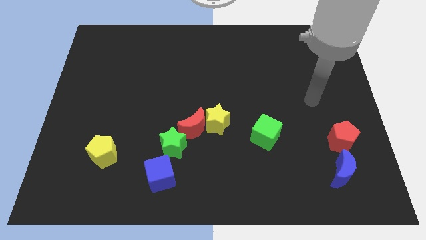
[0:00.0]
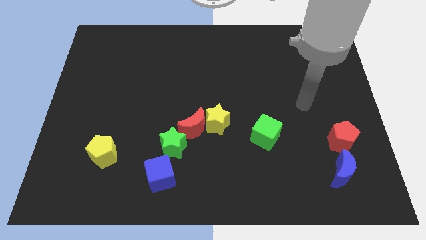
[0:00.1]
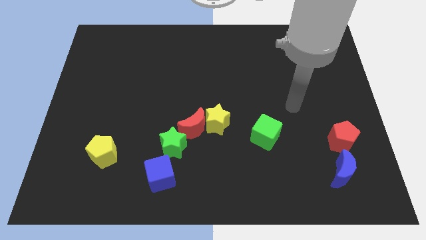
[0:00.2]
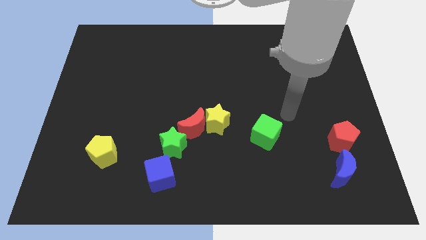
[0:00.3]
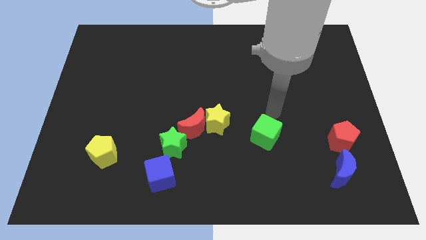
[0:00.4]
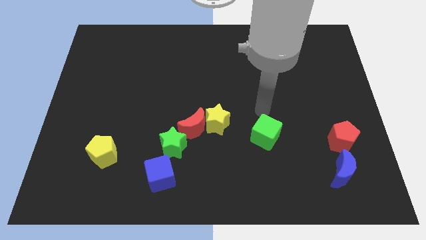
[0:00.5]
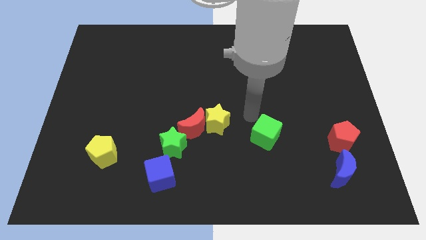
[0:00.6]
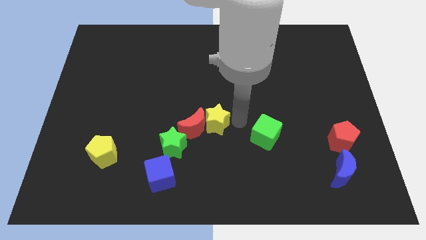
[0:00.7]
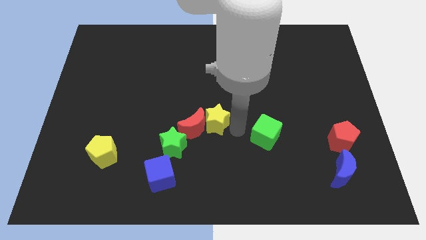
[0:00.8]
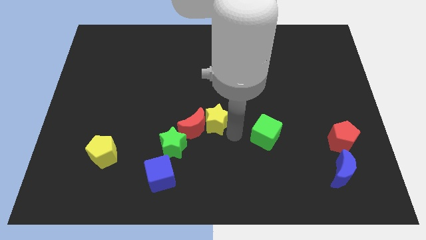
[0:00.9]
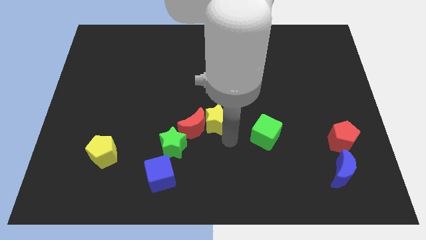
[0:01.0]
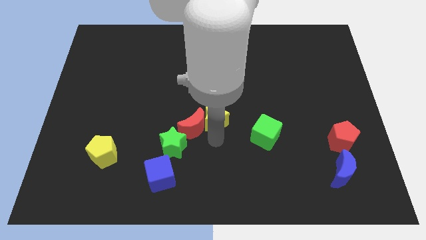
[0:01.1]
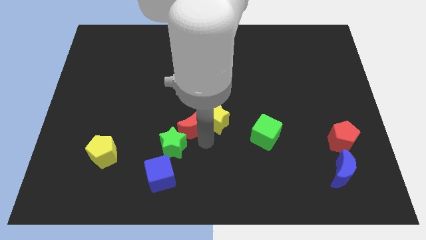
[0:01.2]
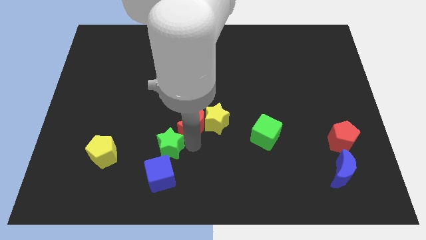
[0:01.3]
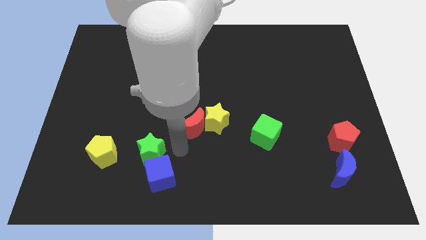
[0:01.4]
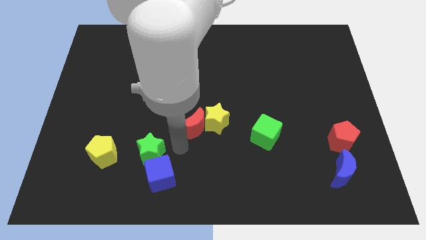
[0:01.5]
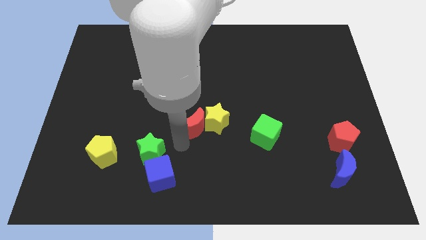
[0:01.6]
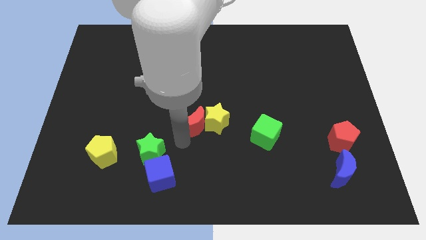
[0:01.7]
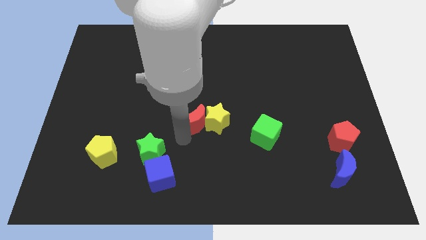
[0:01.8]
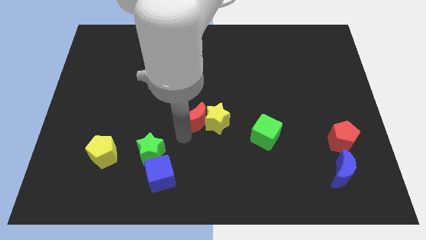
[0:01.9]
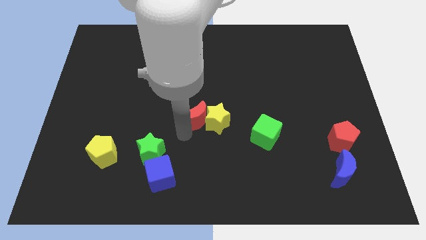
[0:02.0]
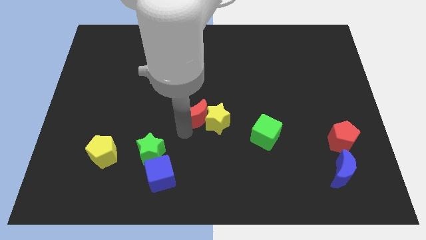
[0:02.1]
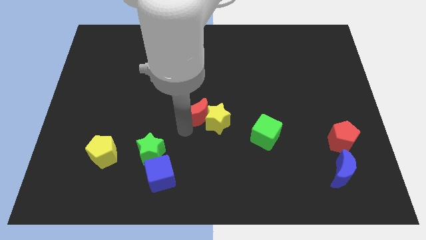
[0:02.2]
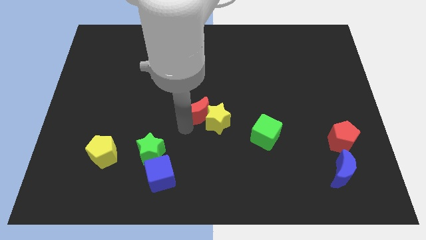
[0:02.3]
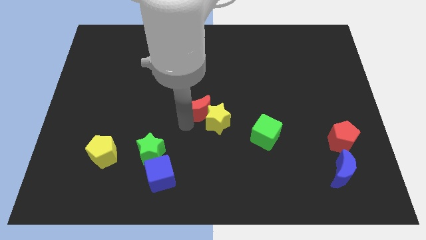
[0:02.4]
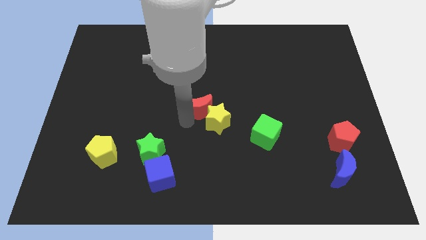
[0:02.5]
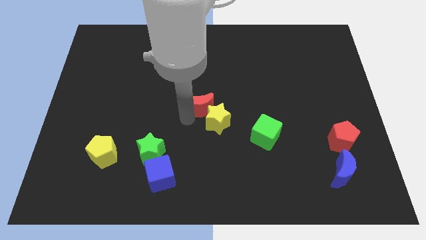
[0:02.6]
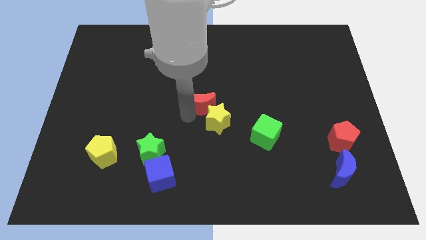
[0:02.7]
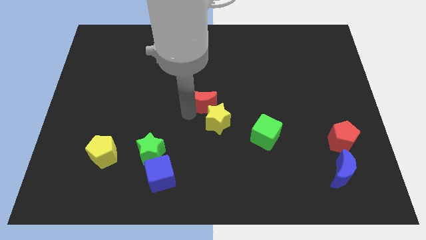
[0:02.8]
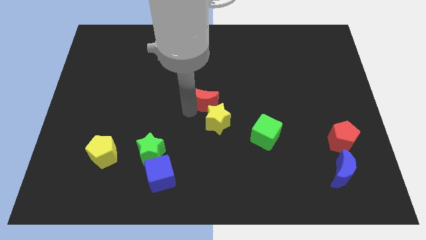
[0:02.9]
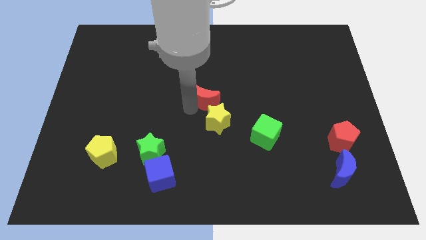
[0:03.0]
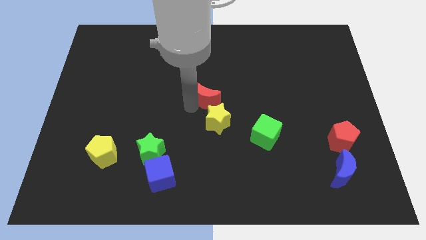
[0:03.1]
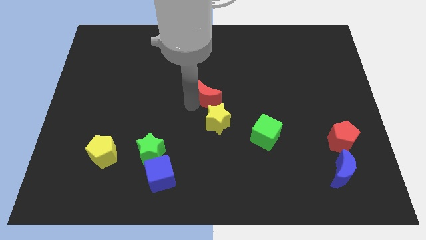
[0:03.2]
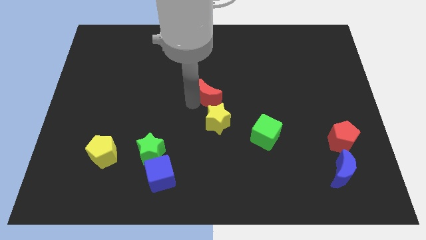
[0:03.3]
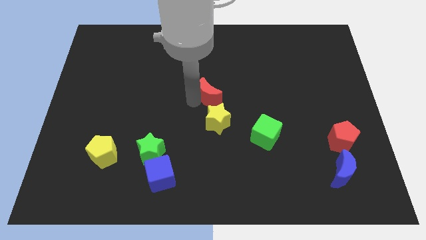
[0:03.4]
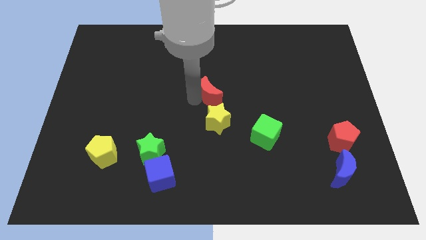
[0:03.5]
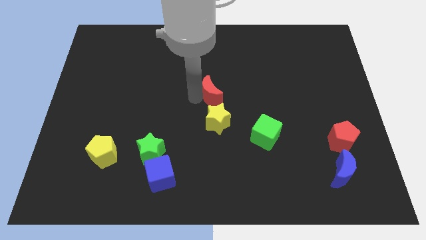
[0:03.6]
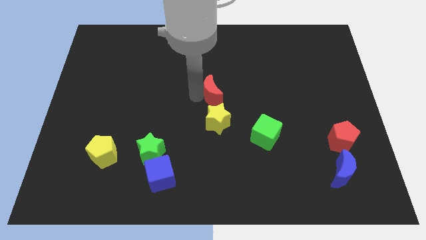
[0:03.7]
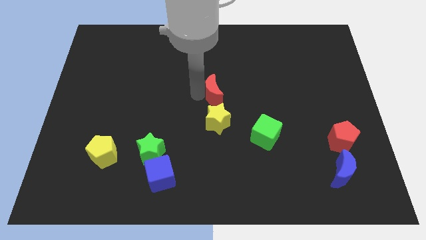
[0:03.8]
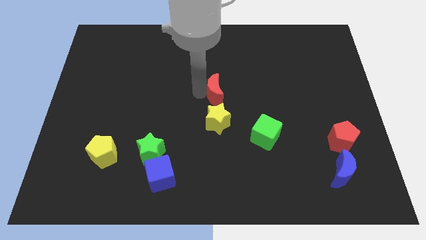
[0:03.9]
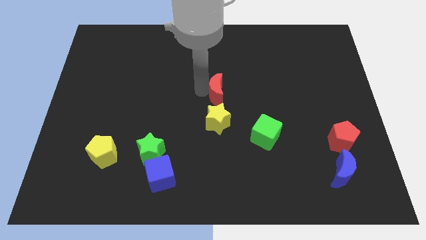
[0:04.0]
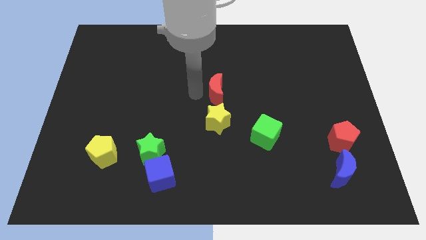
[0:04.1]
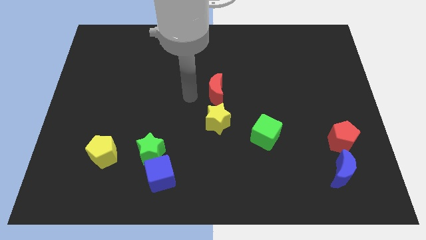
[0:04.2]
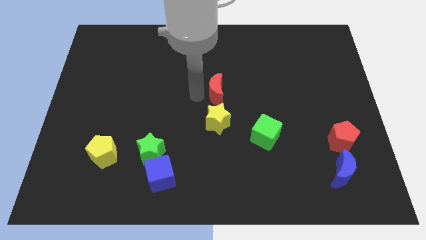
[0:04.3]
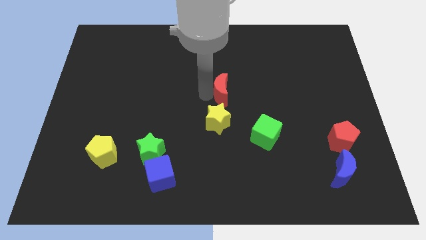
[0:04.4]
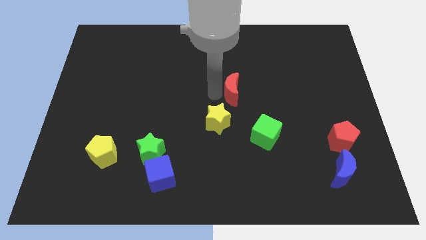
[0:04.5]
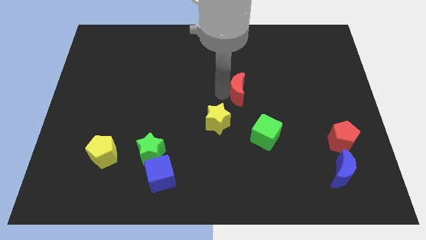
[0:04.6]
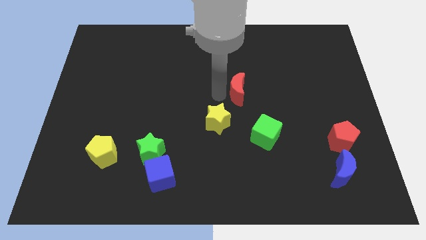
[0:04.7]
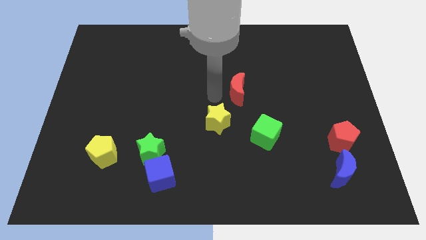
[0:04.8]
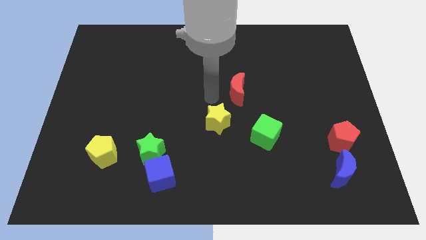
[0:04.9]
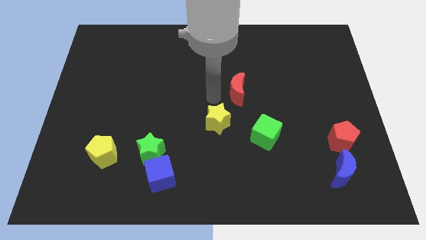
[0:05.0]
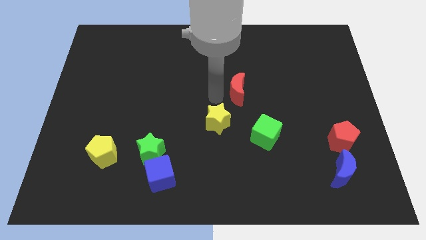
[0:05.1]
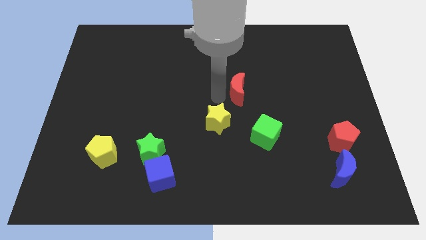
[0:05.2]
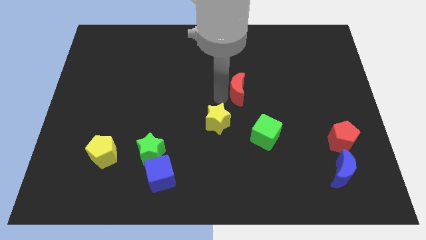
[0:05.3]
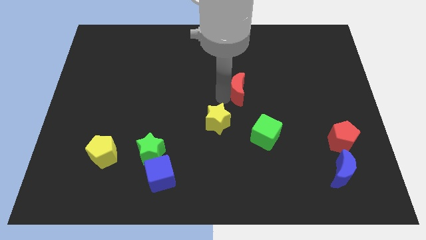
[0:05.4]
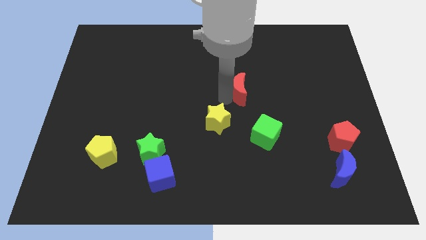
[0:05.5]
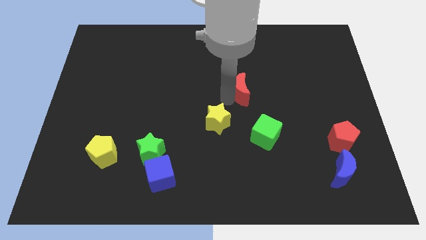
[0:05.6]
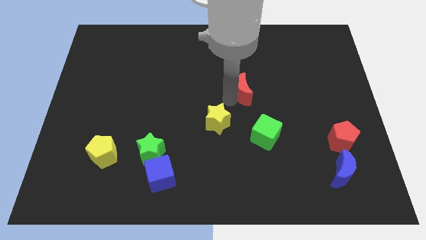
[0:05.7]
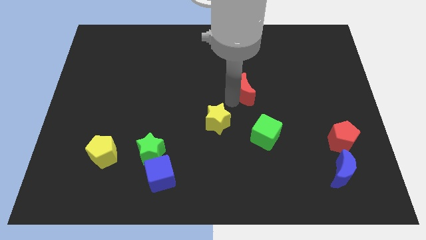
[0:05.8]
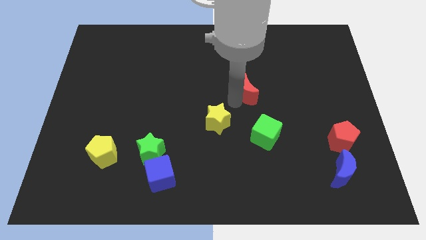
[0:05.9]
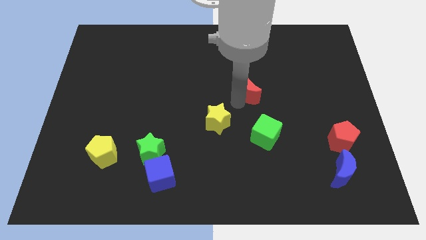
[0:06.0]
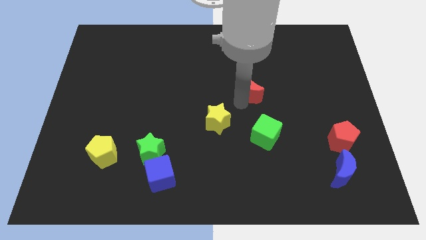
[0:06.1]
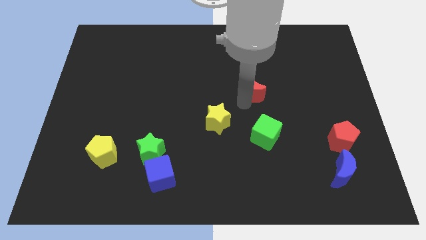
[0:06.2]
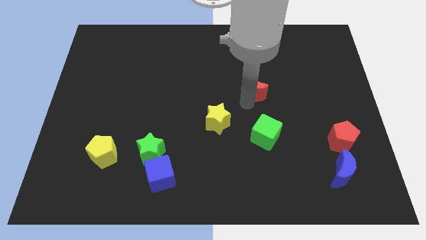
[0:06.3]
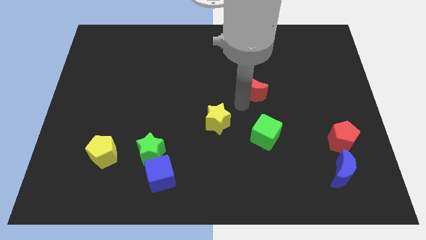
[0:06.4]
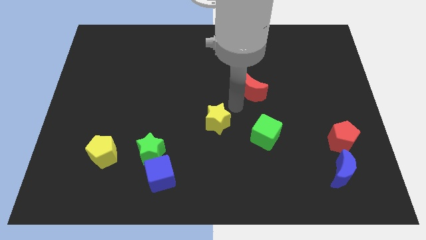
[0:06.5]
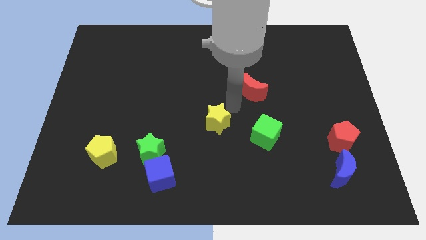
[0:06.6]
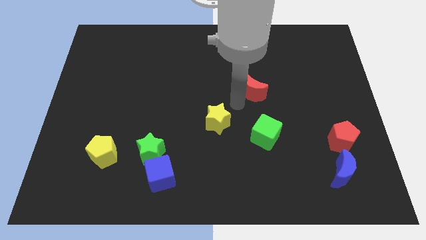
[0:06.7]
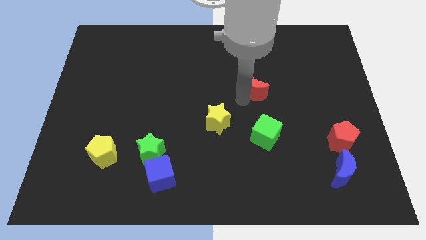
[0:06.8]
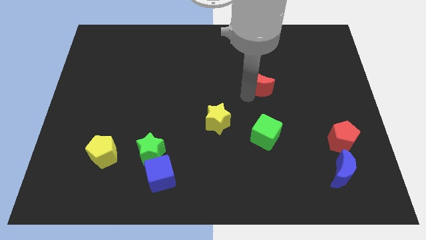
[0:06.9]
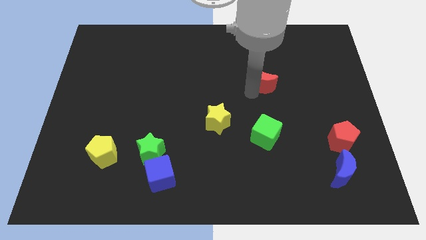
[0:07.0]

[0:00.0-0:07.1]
move the red moon upwards and right

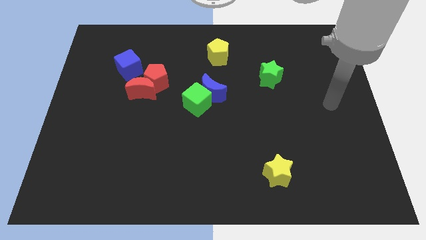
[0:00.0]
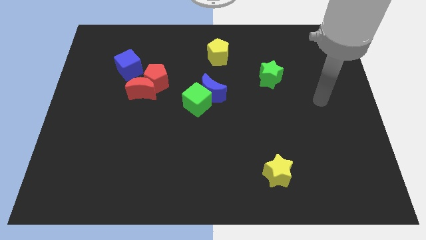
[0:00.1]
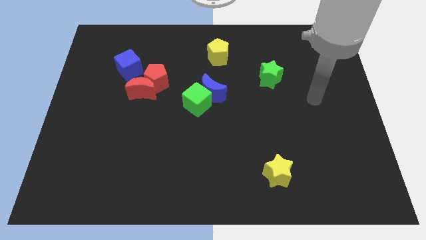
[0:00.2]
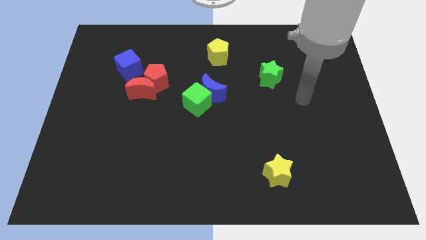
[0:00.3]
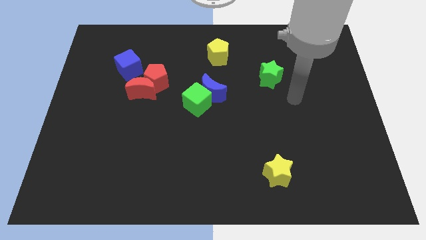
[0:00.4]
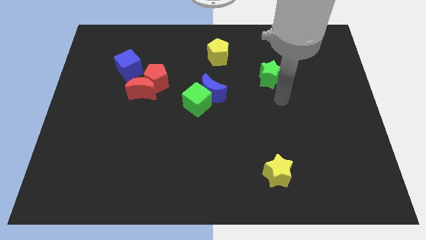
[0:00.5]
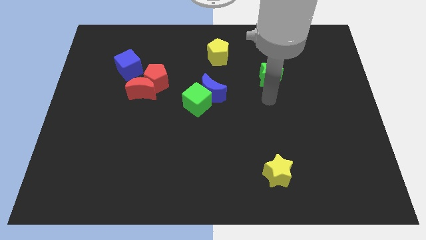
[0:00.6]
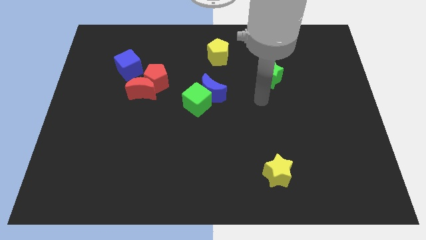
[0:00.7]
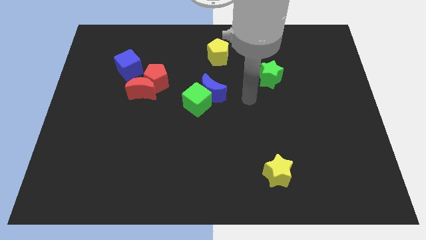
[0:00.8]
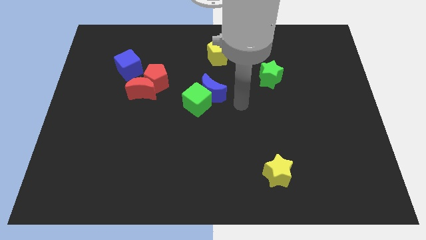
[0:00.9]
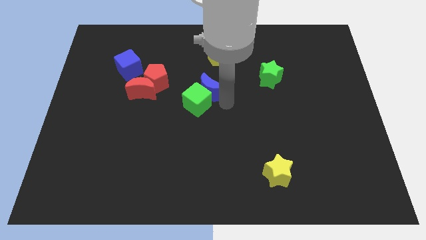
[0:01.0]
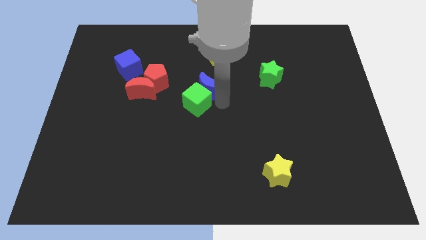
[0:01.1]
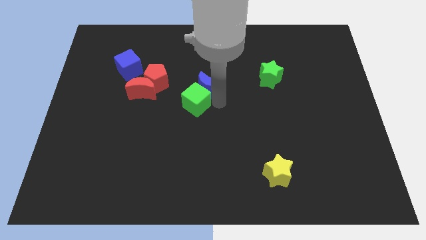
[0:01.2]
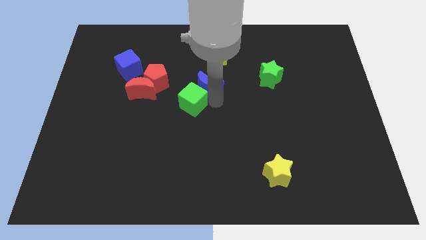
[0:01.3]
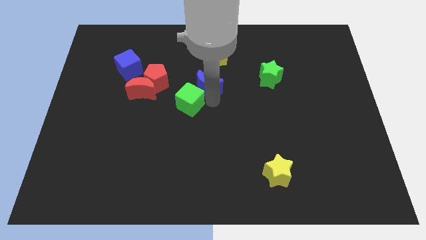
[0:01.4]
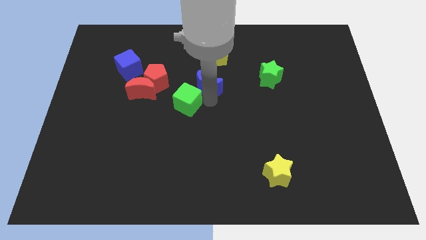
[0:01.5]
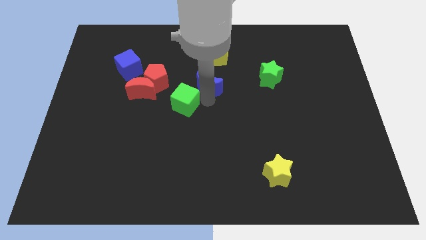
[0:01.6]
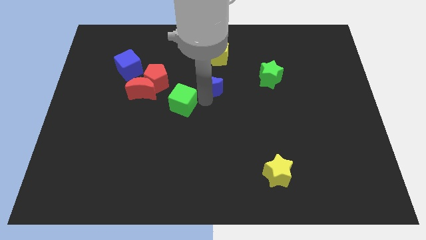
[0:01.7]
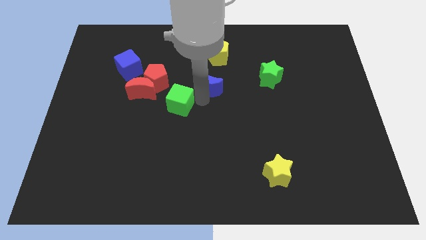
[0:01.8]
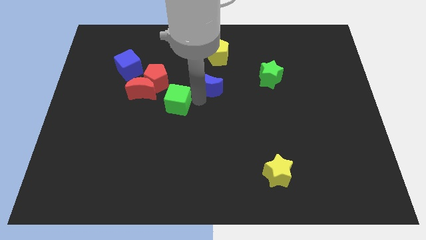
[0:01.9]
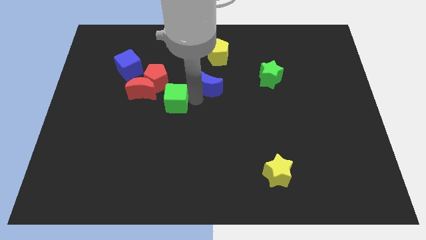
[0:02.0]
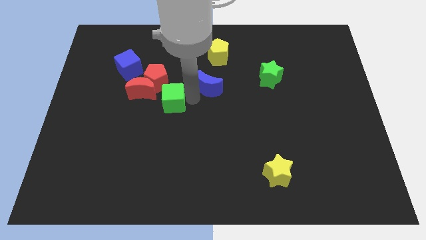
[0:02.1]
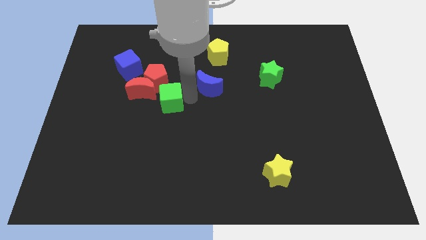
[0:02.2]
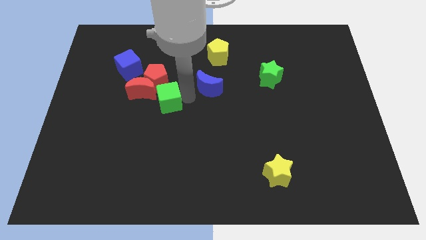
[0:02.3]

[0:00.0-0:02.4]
push the green cube slightly left
